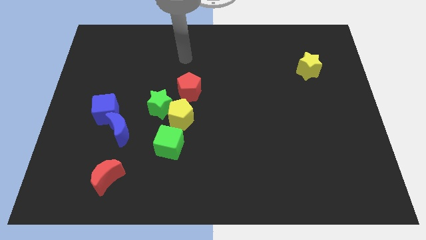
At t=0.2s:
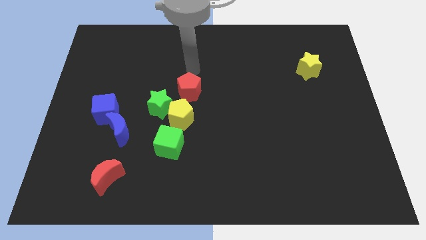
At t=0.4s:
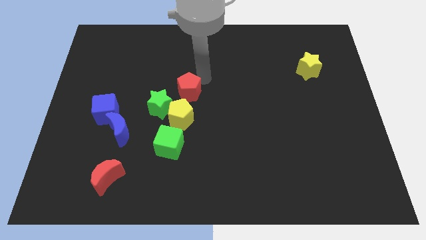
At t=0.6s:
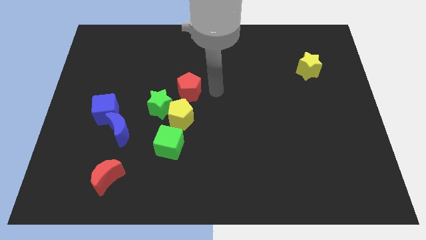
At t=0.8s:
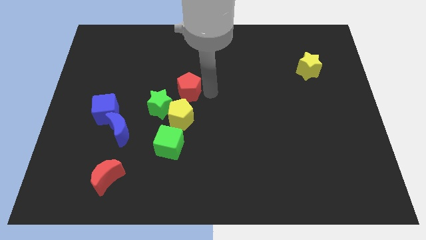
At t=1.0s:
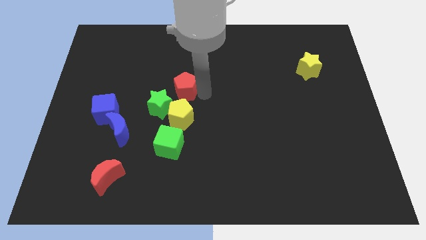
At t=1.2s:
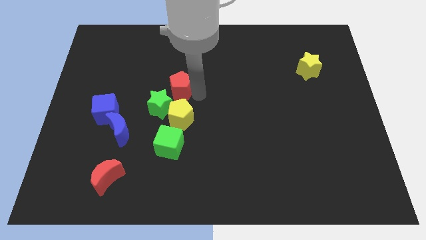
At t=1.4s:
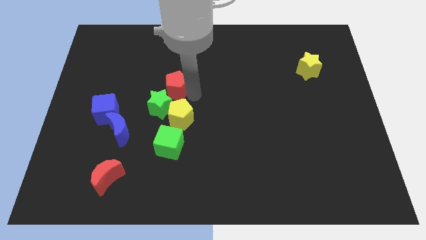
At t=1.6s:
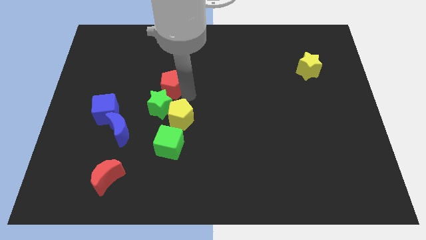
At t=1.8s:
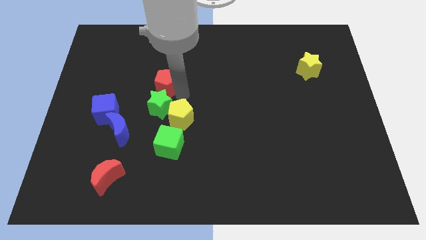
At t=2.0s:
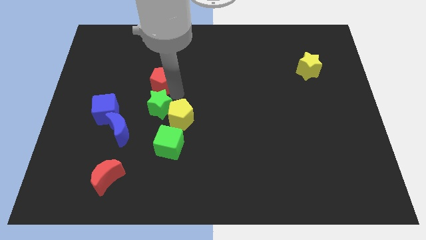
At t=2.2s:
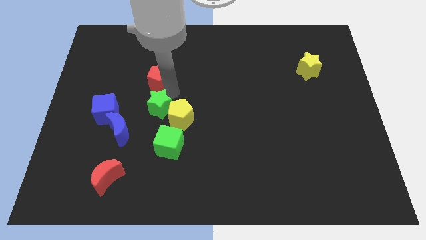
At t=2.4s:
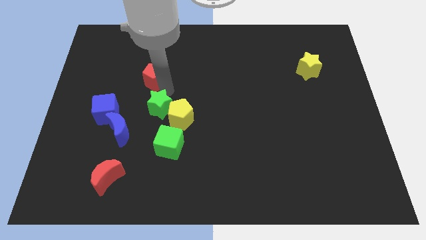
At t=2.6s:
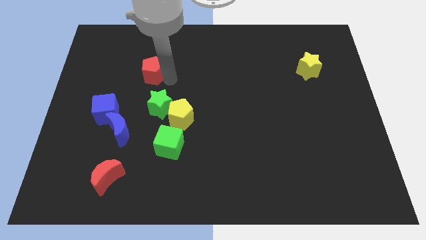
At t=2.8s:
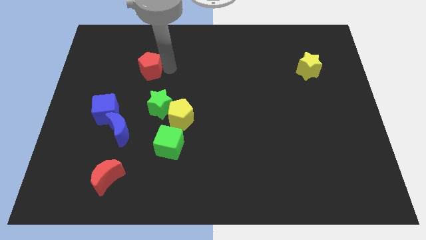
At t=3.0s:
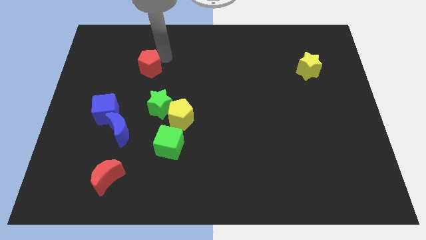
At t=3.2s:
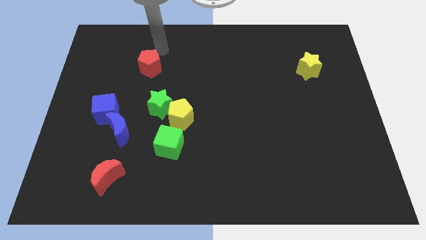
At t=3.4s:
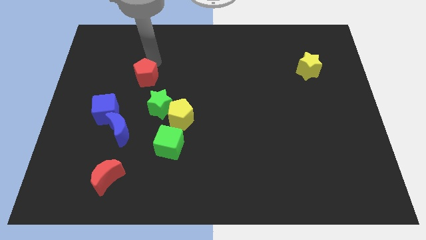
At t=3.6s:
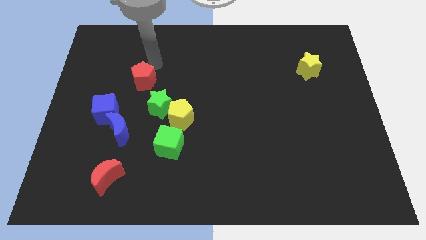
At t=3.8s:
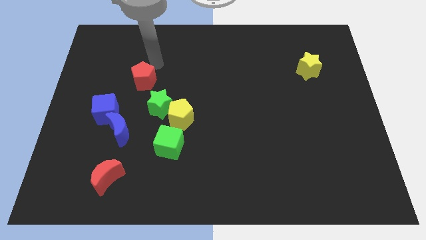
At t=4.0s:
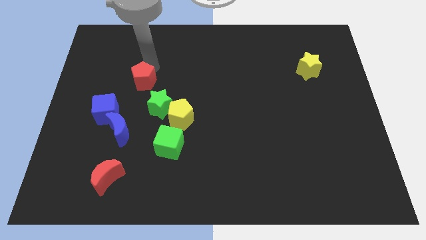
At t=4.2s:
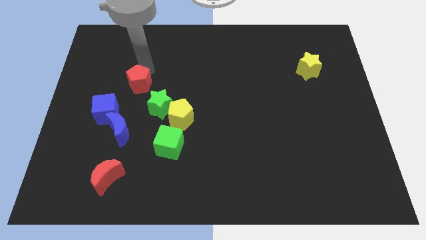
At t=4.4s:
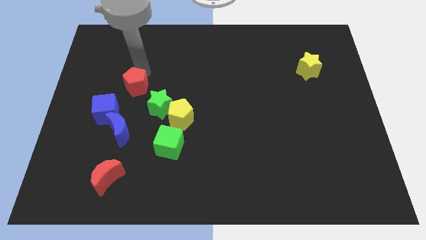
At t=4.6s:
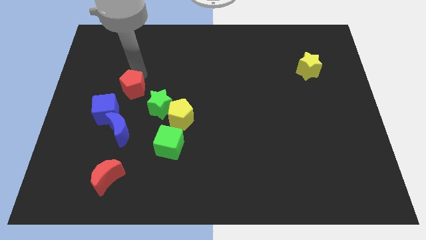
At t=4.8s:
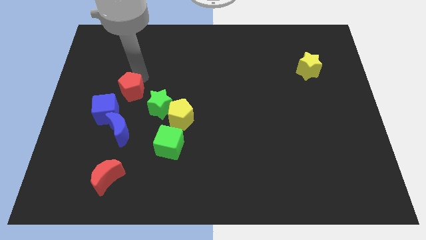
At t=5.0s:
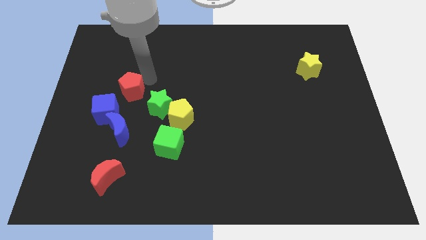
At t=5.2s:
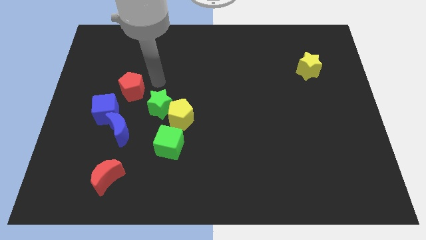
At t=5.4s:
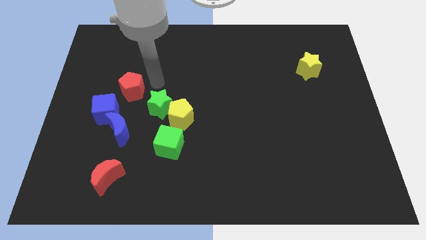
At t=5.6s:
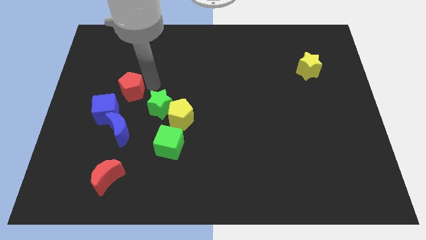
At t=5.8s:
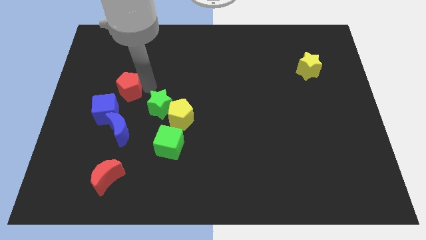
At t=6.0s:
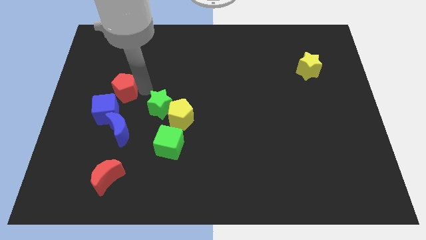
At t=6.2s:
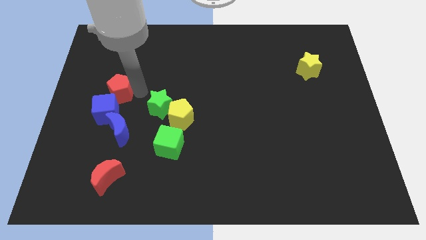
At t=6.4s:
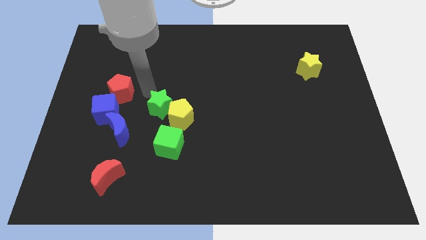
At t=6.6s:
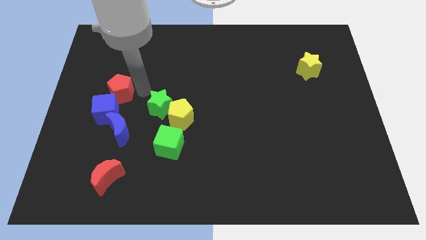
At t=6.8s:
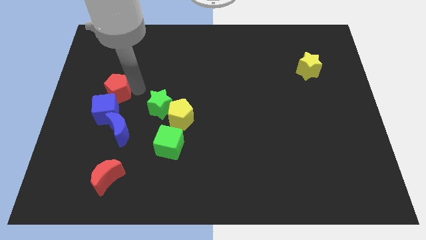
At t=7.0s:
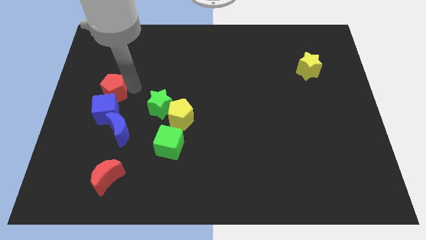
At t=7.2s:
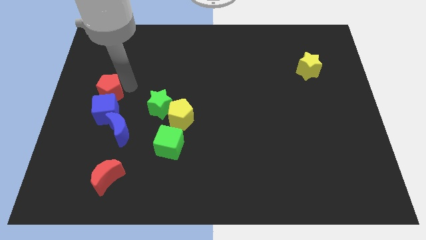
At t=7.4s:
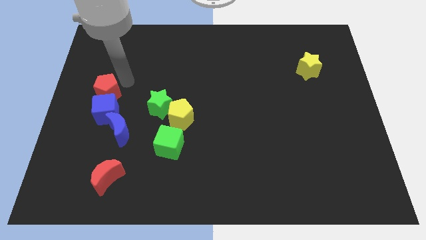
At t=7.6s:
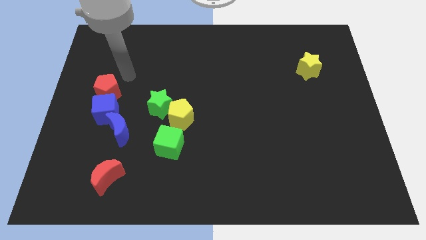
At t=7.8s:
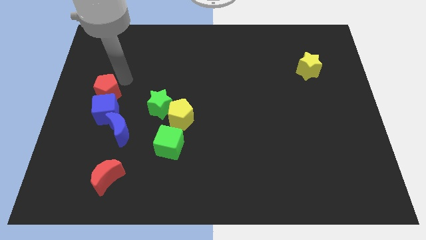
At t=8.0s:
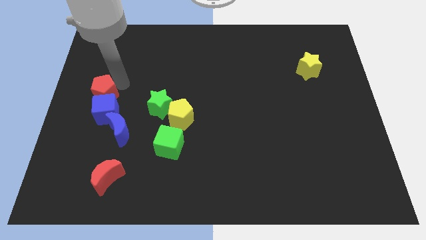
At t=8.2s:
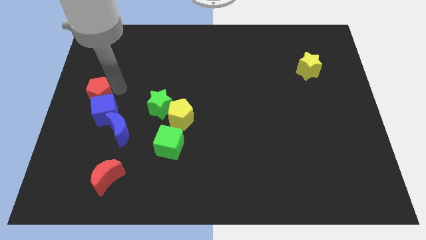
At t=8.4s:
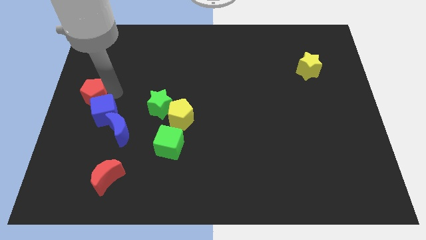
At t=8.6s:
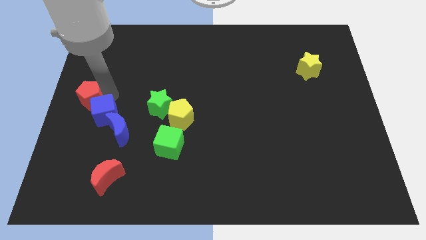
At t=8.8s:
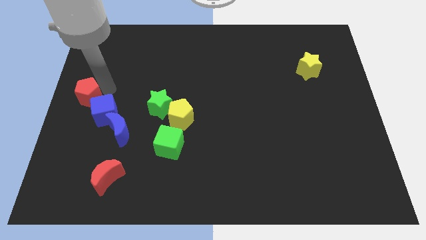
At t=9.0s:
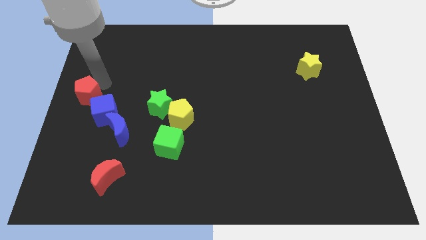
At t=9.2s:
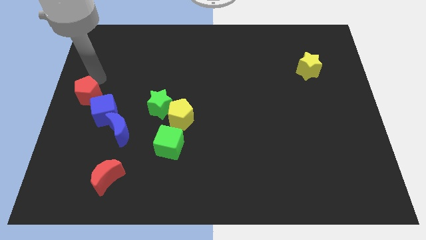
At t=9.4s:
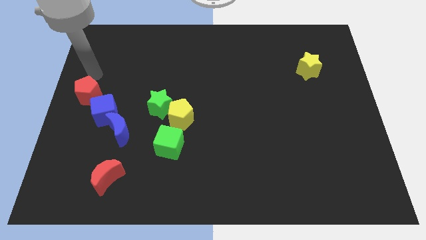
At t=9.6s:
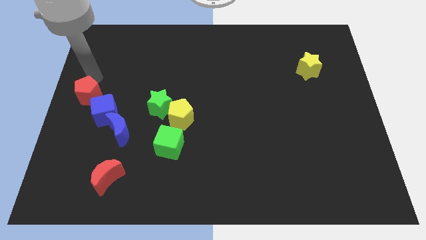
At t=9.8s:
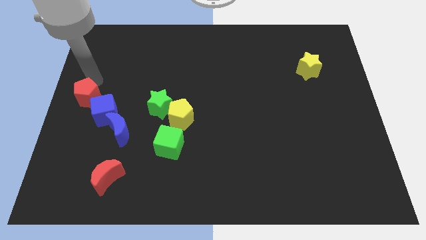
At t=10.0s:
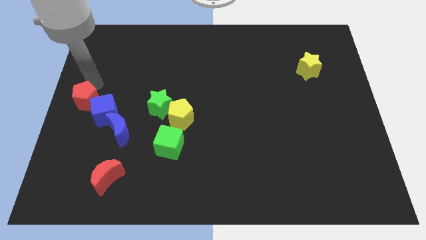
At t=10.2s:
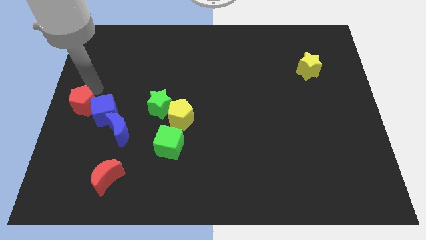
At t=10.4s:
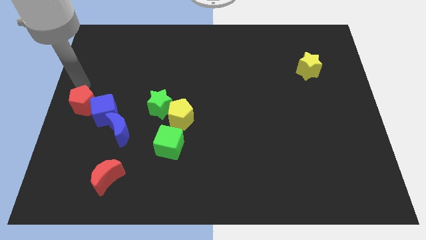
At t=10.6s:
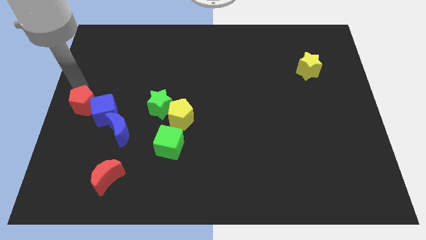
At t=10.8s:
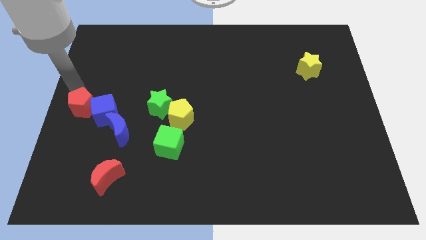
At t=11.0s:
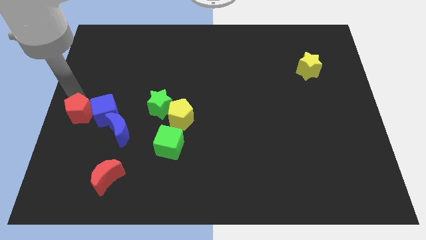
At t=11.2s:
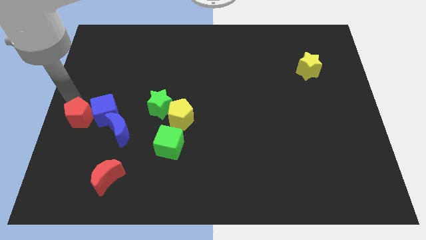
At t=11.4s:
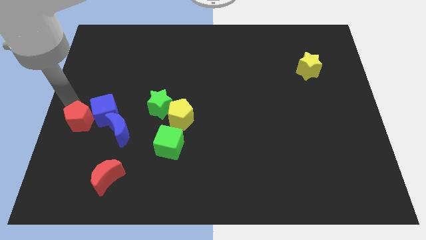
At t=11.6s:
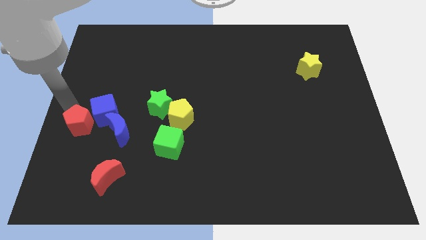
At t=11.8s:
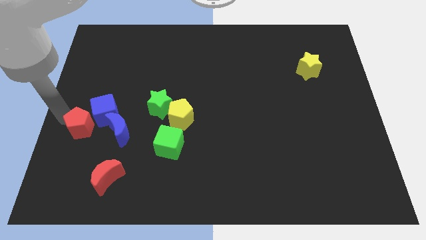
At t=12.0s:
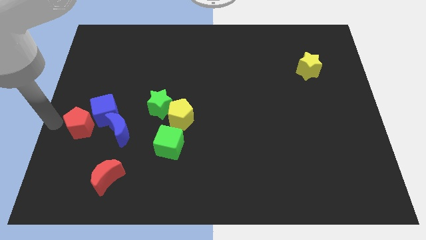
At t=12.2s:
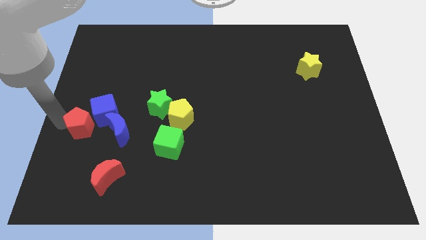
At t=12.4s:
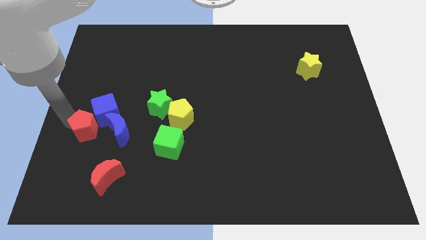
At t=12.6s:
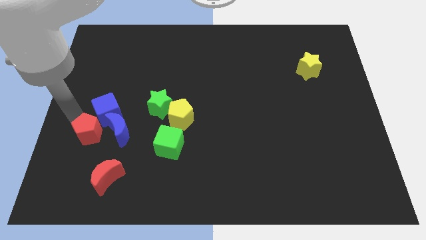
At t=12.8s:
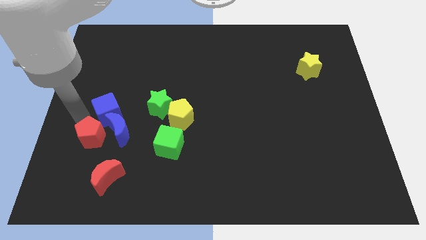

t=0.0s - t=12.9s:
move the red pentagon towards the blue moon
